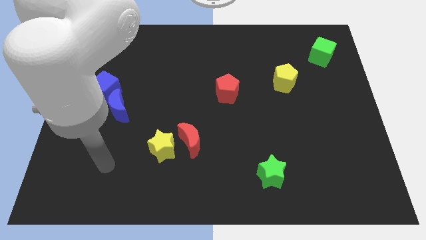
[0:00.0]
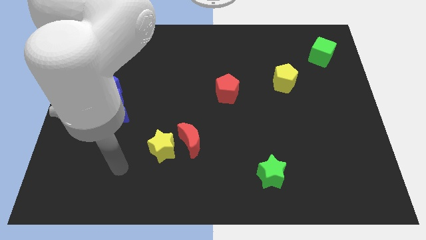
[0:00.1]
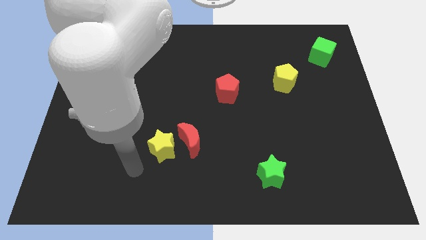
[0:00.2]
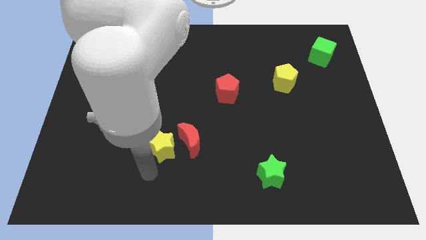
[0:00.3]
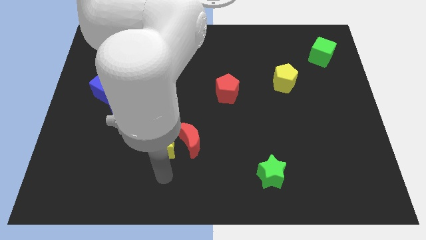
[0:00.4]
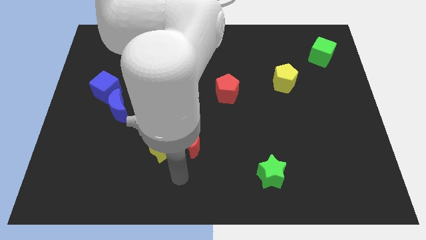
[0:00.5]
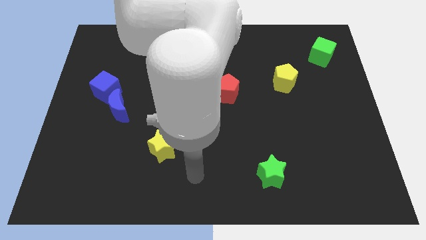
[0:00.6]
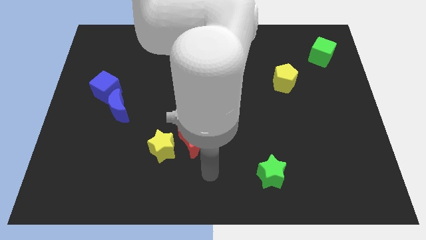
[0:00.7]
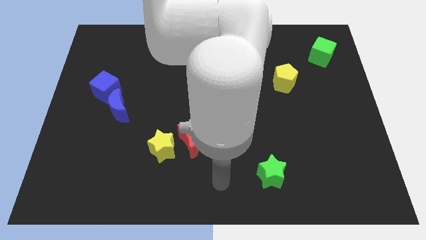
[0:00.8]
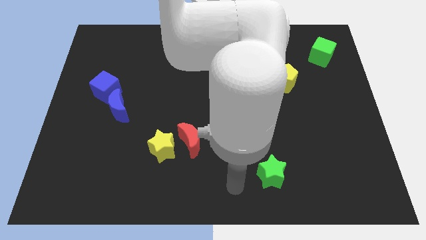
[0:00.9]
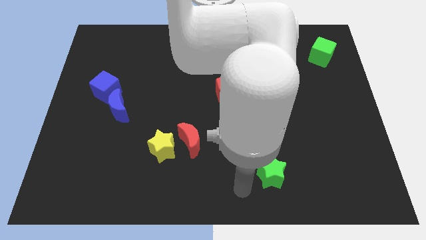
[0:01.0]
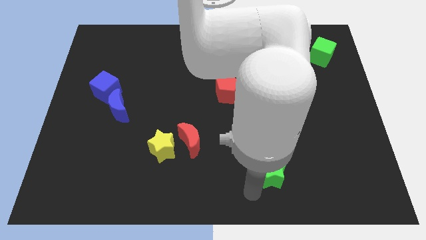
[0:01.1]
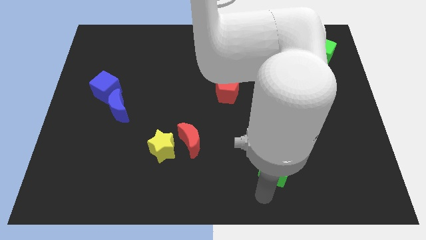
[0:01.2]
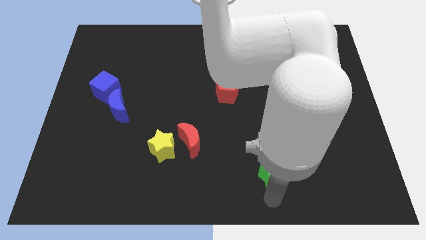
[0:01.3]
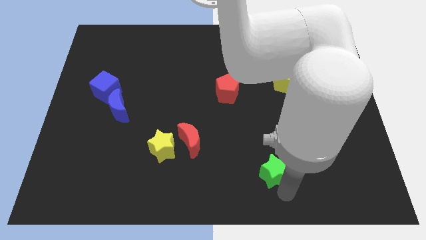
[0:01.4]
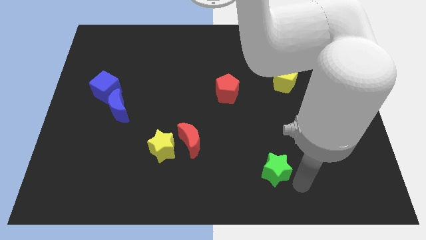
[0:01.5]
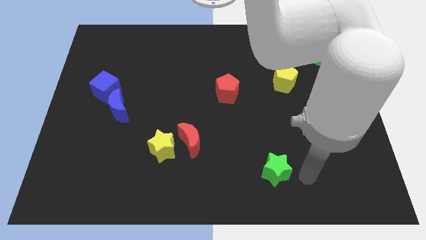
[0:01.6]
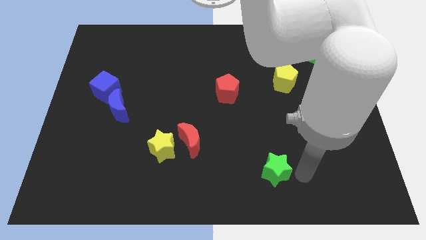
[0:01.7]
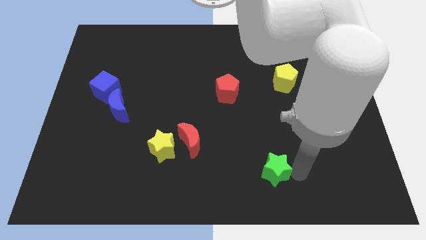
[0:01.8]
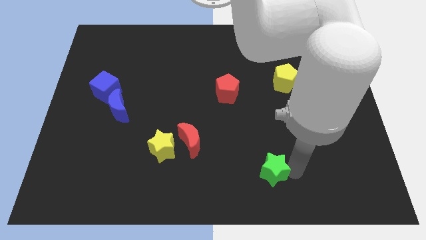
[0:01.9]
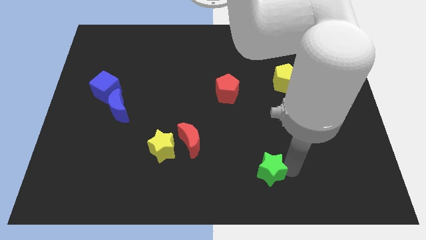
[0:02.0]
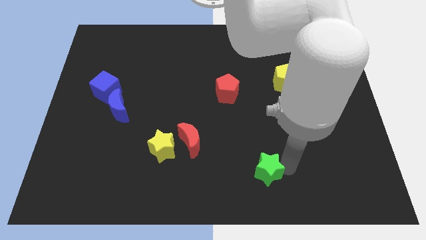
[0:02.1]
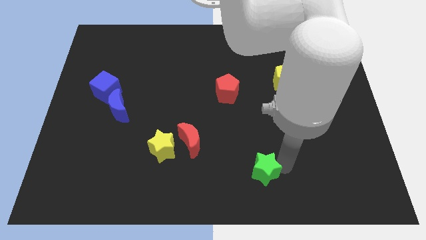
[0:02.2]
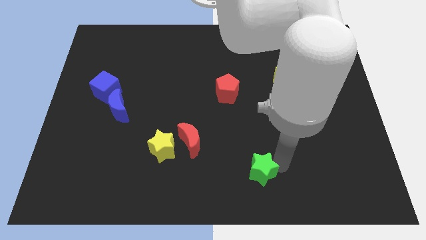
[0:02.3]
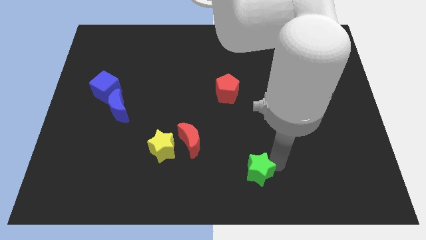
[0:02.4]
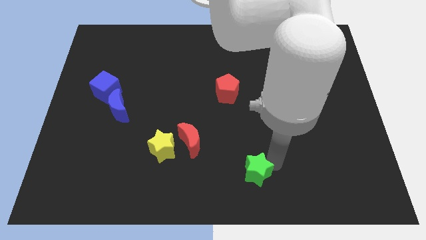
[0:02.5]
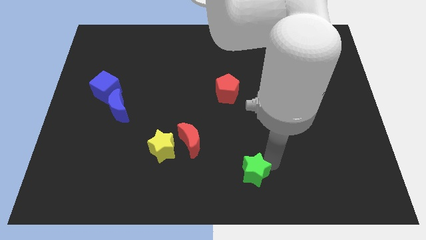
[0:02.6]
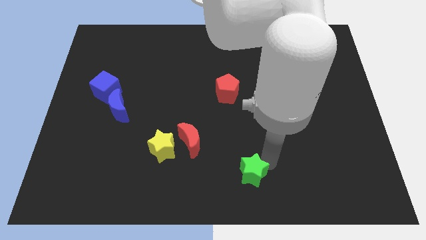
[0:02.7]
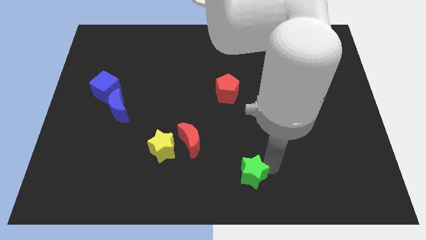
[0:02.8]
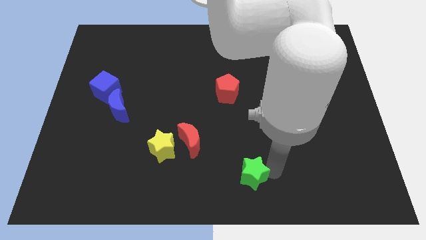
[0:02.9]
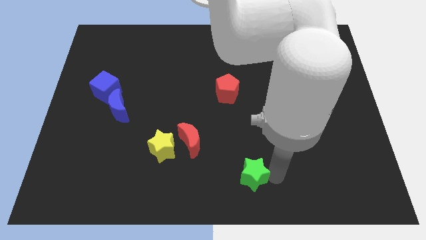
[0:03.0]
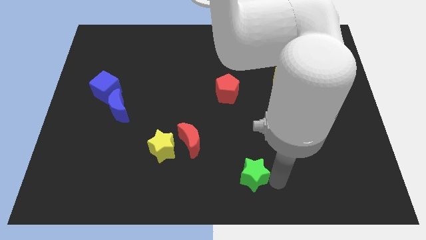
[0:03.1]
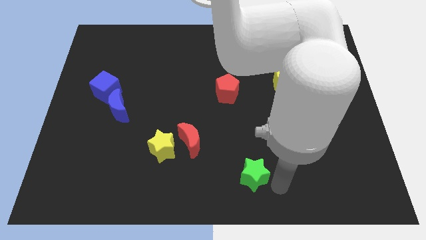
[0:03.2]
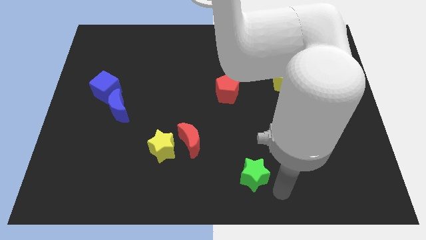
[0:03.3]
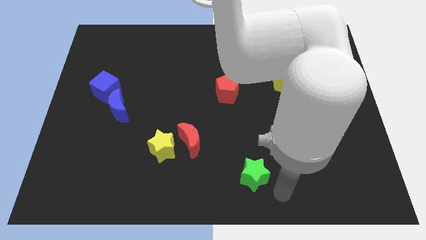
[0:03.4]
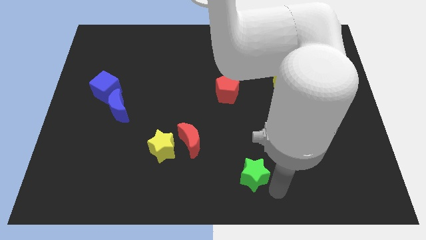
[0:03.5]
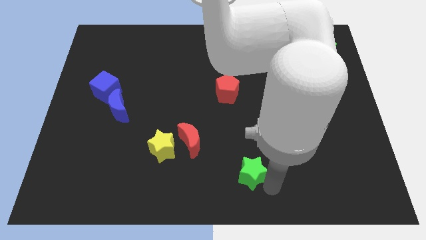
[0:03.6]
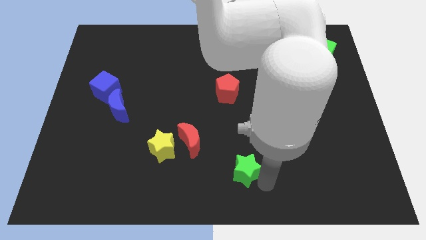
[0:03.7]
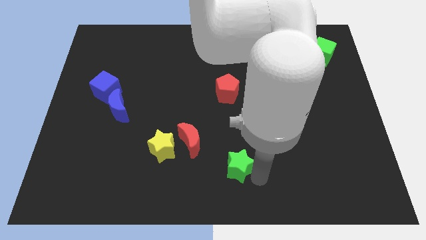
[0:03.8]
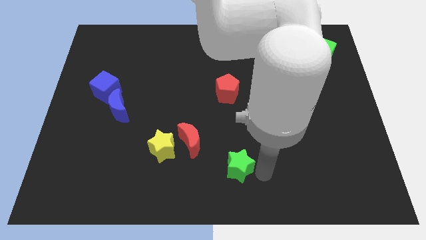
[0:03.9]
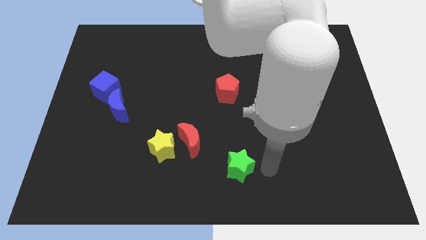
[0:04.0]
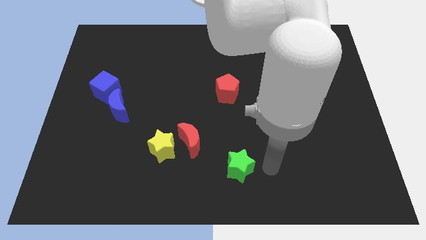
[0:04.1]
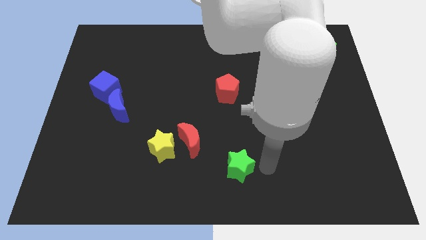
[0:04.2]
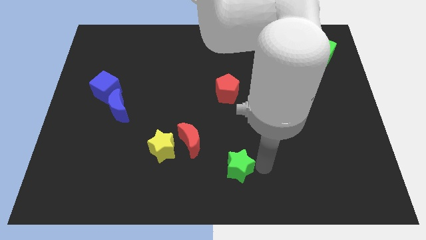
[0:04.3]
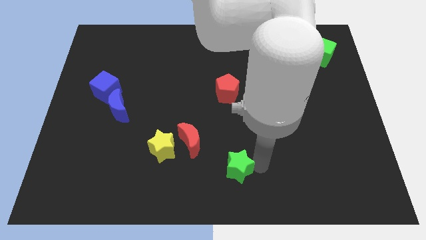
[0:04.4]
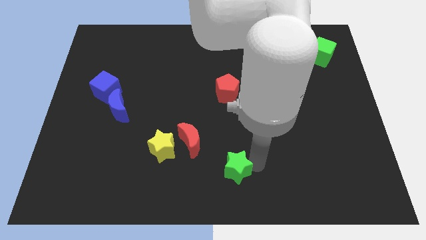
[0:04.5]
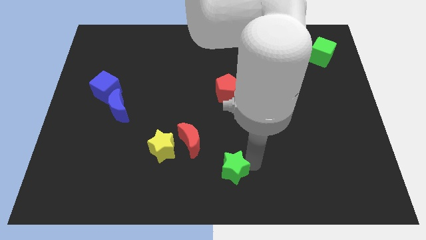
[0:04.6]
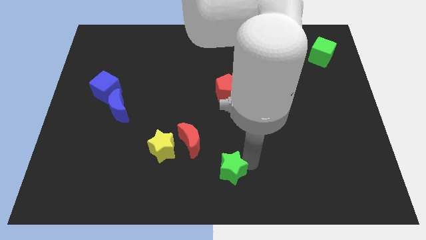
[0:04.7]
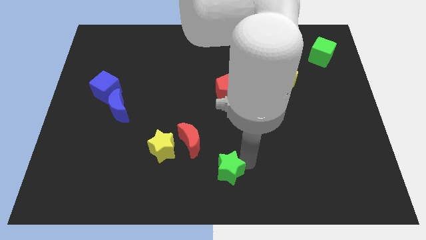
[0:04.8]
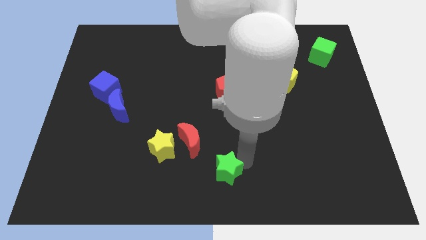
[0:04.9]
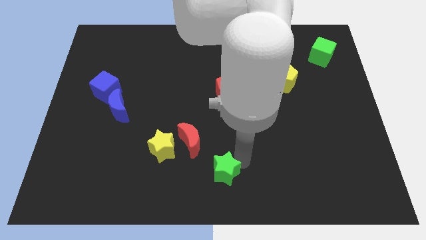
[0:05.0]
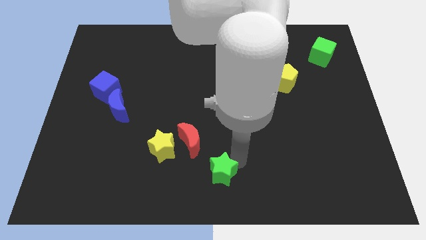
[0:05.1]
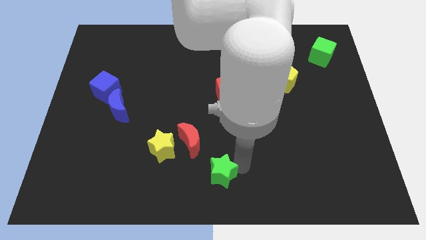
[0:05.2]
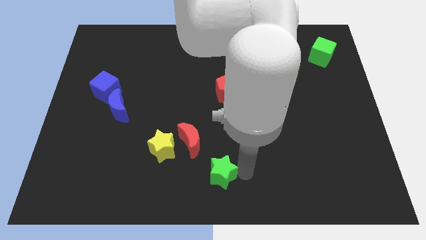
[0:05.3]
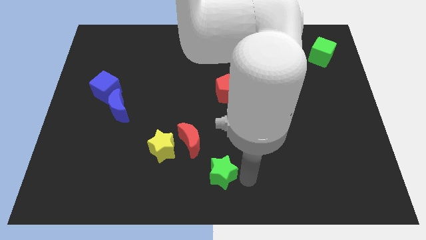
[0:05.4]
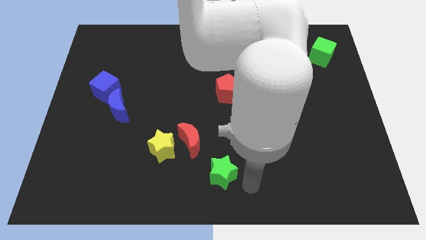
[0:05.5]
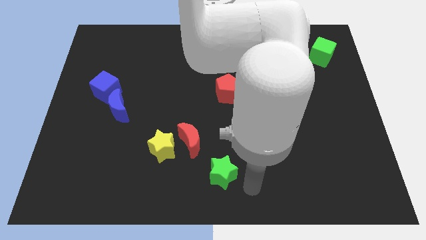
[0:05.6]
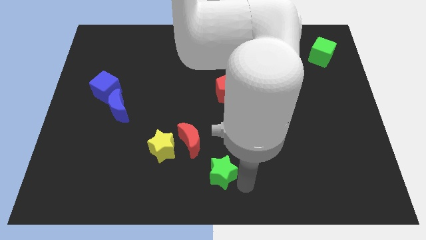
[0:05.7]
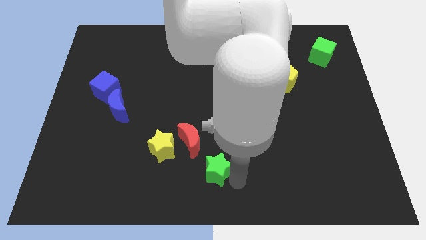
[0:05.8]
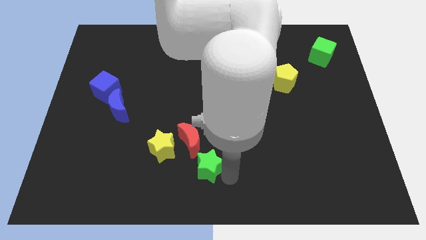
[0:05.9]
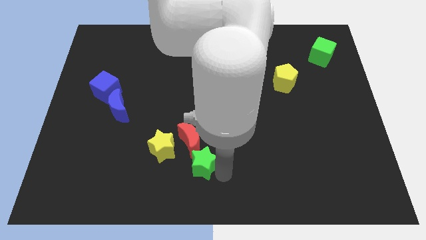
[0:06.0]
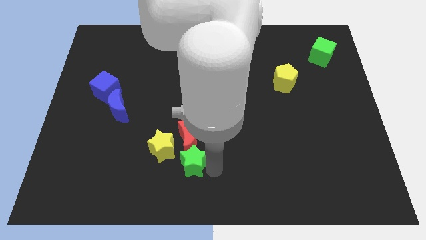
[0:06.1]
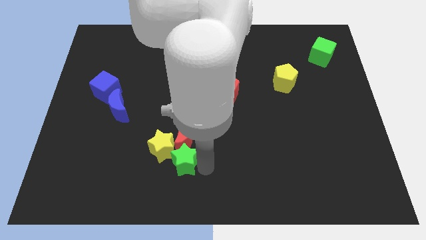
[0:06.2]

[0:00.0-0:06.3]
push the green star next to the yellow star

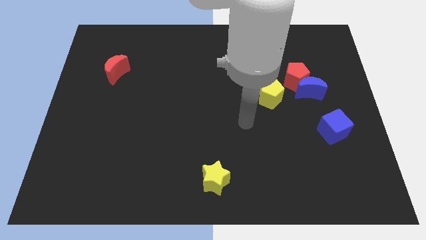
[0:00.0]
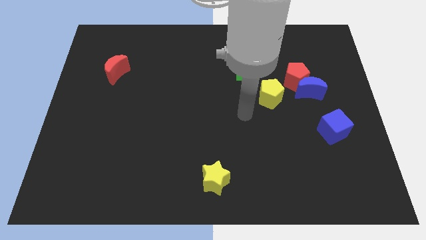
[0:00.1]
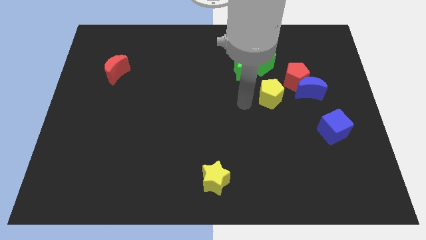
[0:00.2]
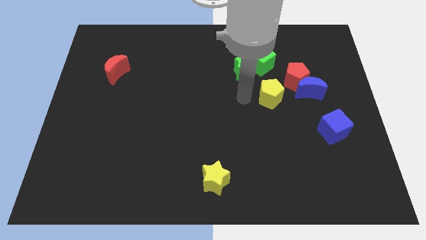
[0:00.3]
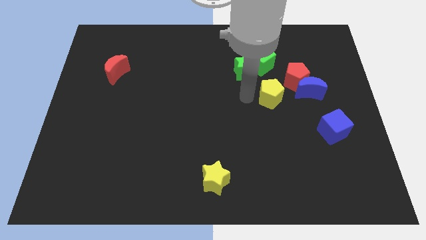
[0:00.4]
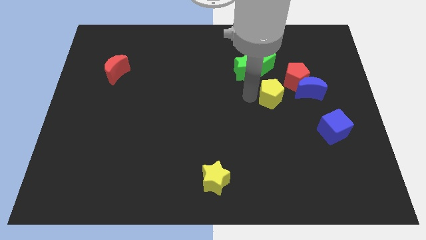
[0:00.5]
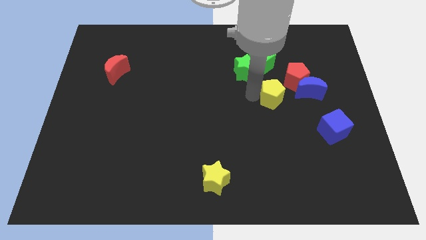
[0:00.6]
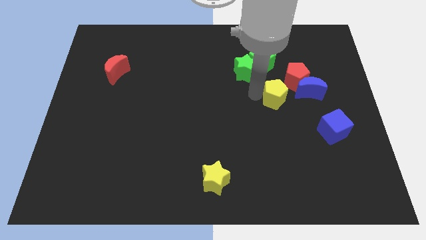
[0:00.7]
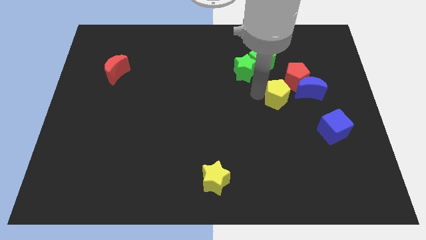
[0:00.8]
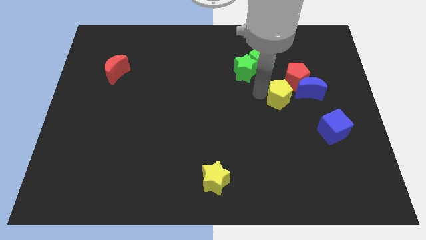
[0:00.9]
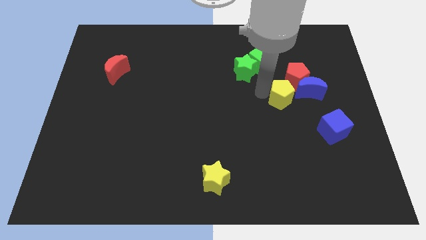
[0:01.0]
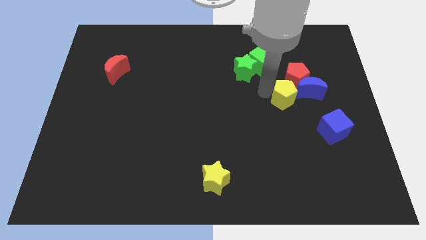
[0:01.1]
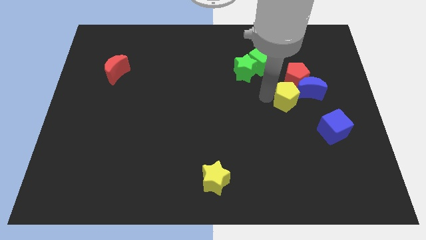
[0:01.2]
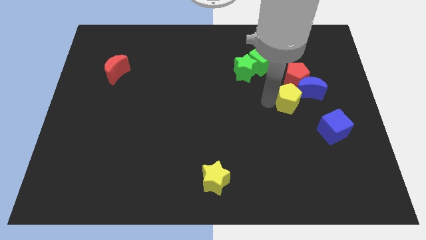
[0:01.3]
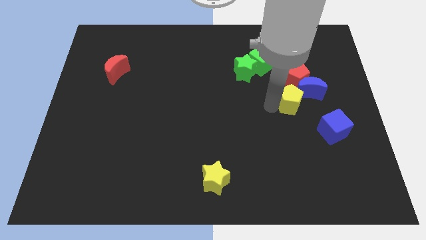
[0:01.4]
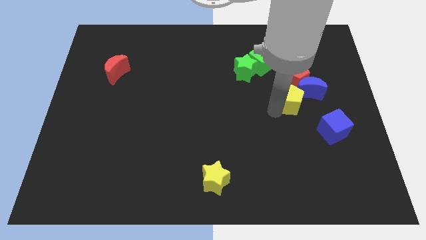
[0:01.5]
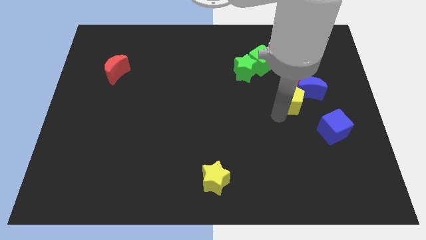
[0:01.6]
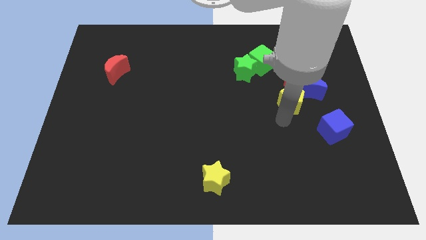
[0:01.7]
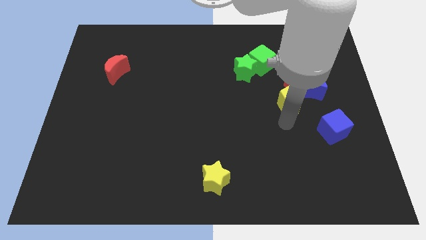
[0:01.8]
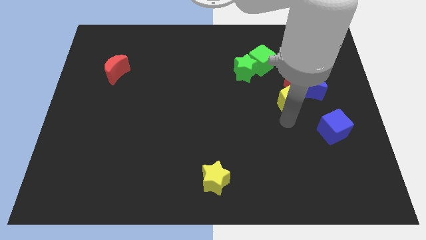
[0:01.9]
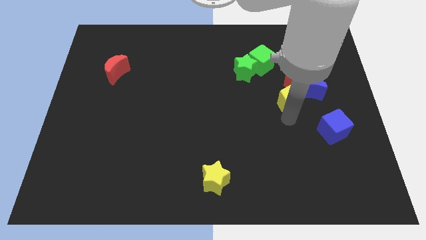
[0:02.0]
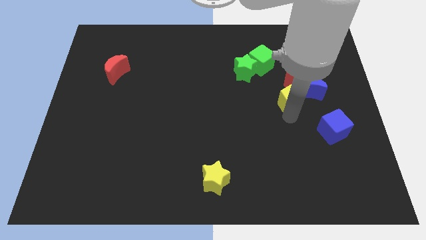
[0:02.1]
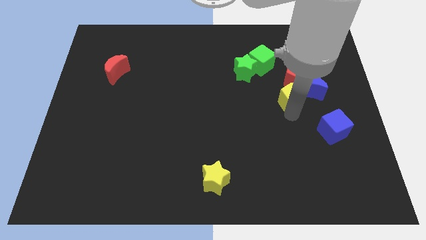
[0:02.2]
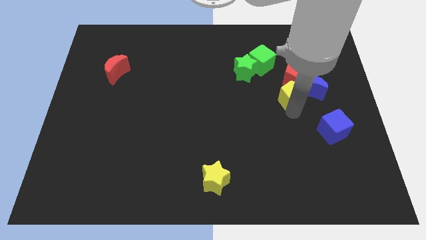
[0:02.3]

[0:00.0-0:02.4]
push the yellow pentagon next to the red pentagon
